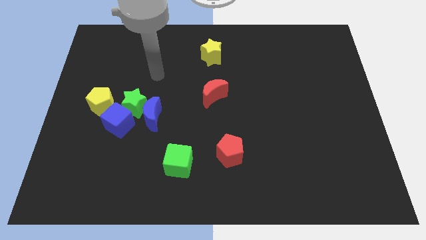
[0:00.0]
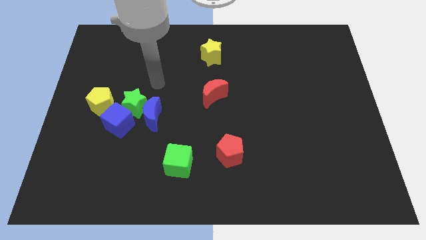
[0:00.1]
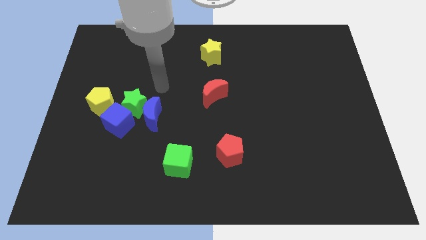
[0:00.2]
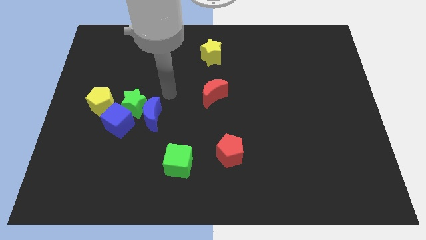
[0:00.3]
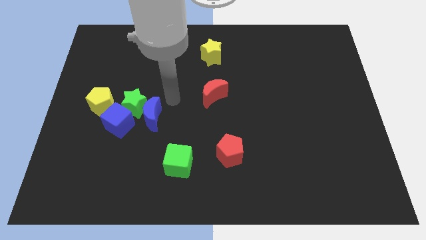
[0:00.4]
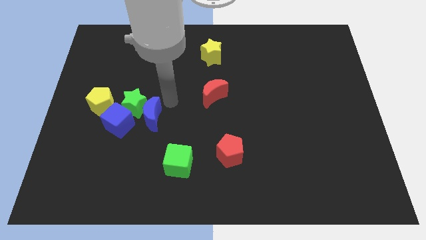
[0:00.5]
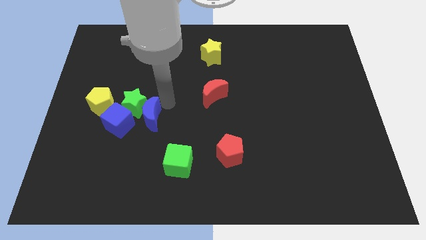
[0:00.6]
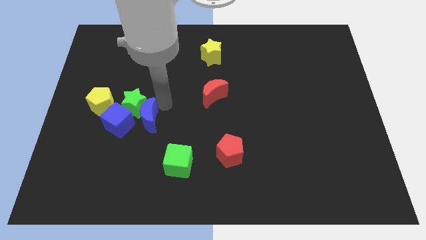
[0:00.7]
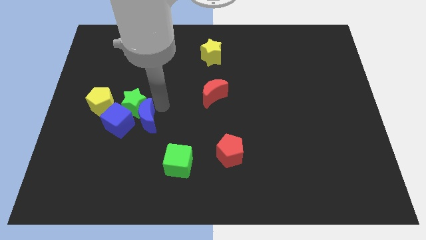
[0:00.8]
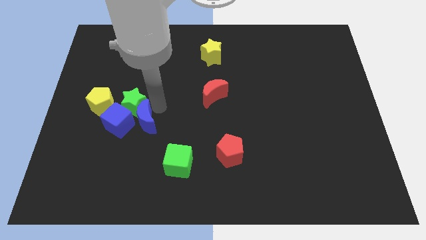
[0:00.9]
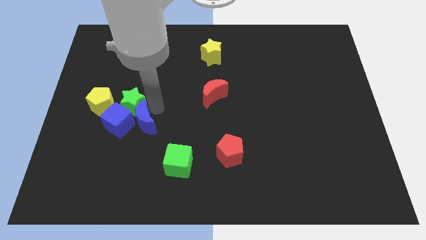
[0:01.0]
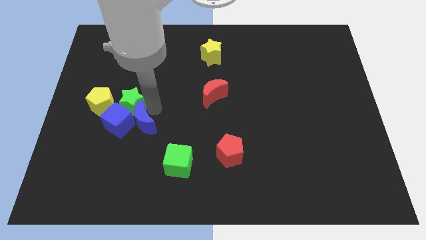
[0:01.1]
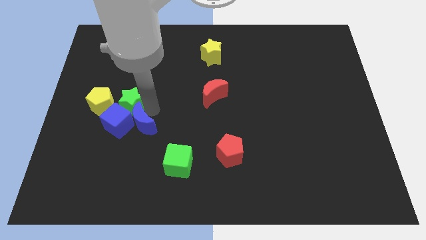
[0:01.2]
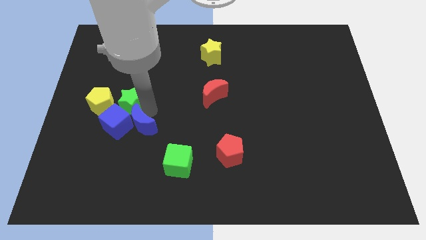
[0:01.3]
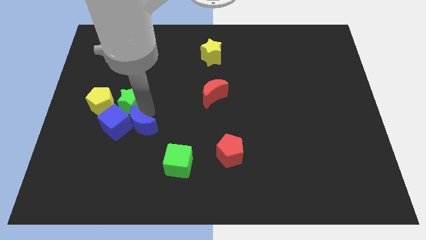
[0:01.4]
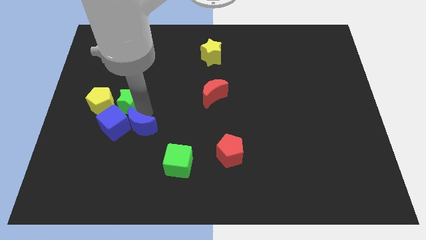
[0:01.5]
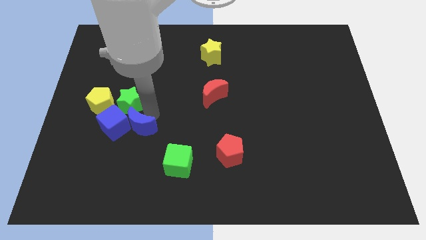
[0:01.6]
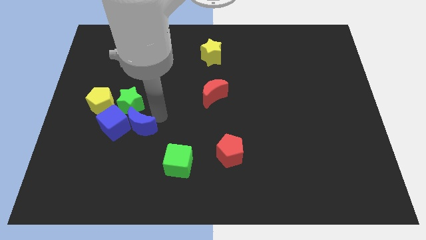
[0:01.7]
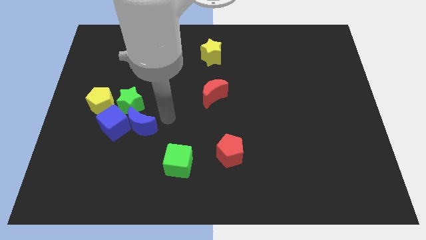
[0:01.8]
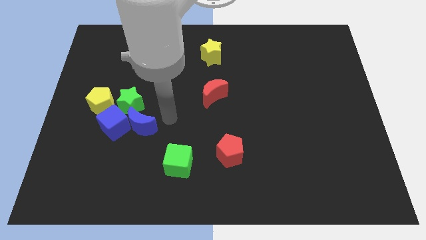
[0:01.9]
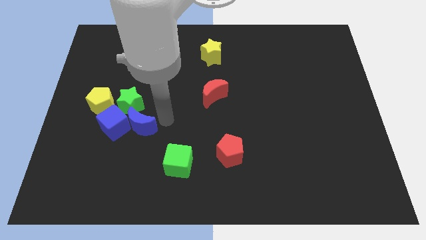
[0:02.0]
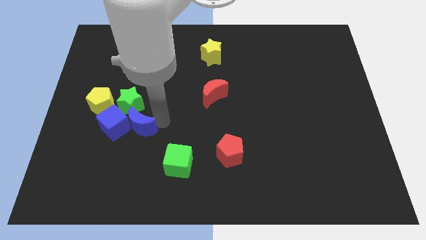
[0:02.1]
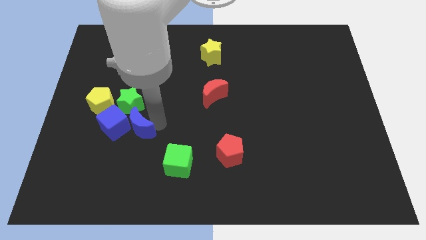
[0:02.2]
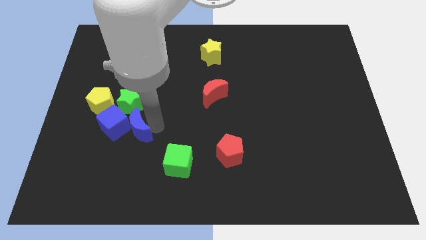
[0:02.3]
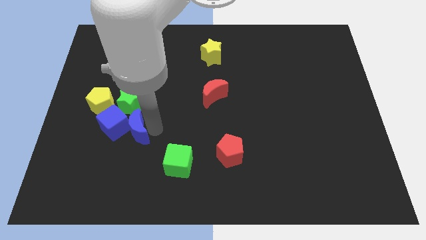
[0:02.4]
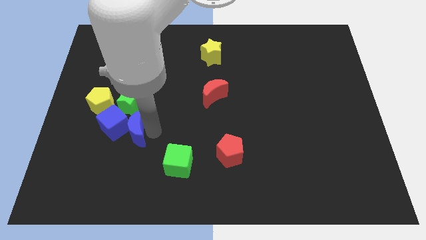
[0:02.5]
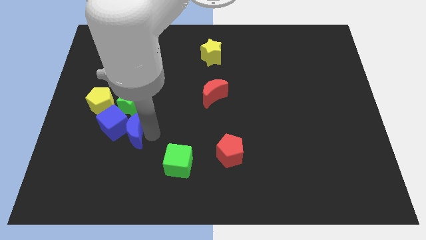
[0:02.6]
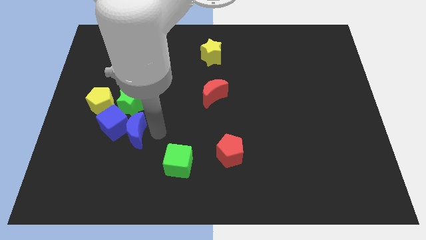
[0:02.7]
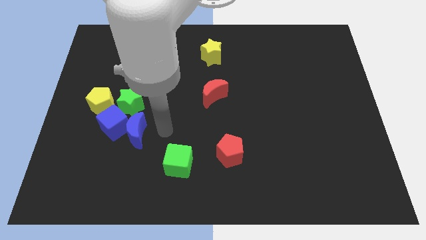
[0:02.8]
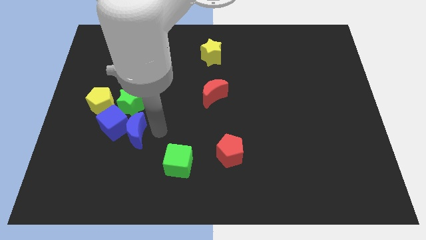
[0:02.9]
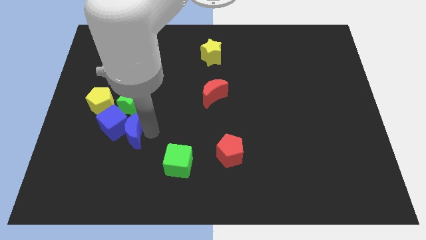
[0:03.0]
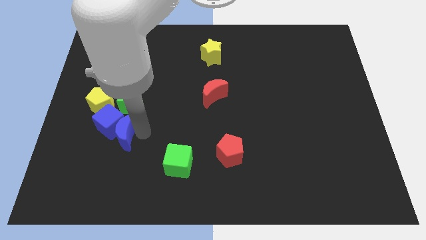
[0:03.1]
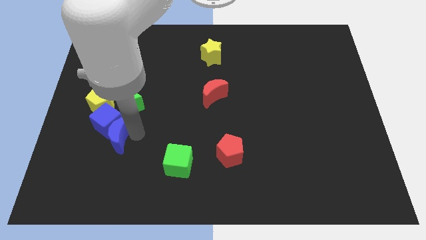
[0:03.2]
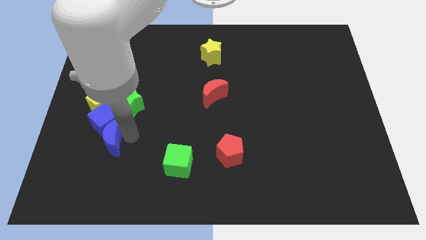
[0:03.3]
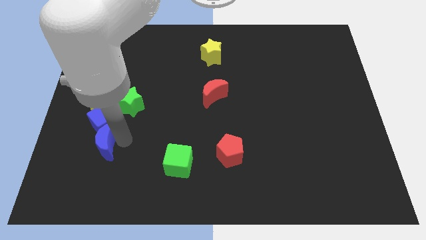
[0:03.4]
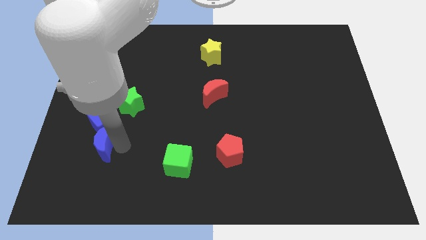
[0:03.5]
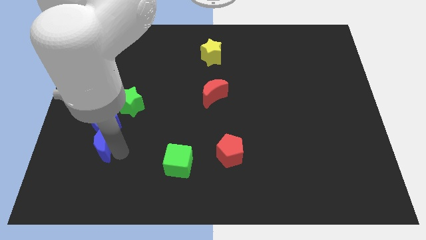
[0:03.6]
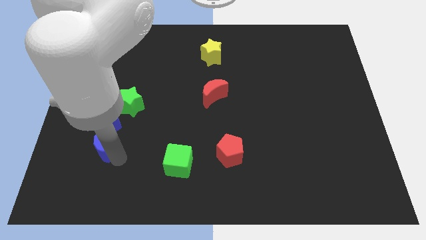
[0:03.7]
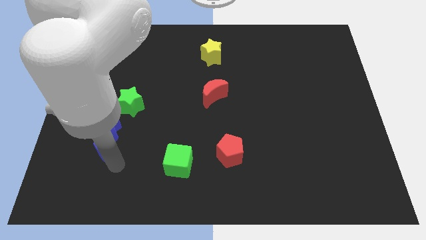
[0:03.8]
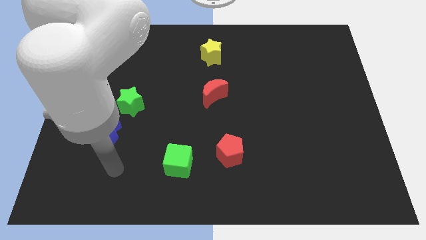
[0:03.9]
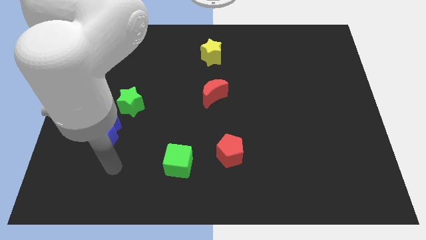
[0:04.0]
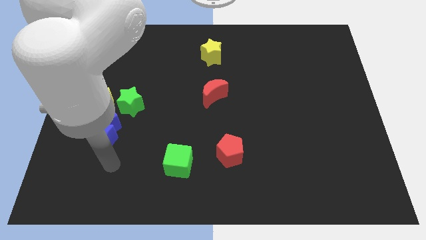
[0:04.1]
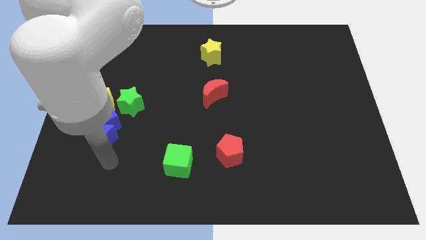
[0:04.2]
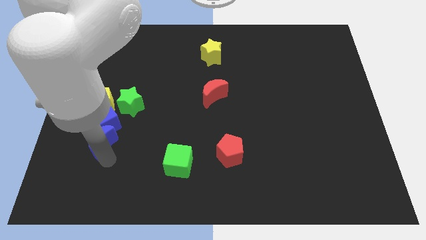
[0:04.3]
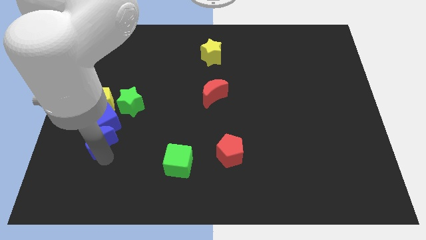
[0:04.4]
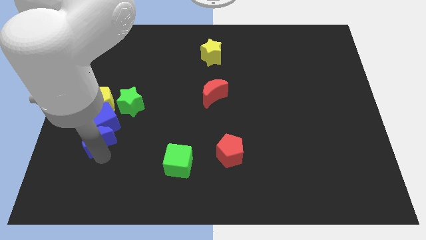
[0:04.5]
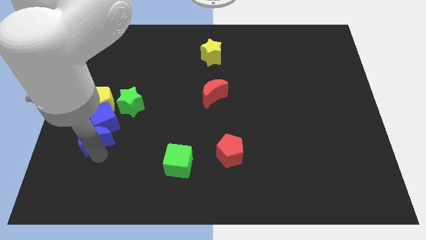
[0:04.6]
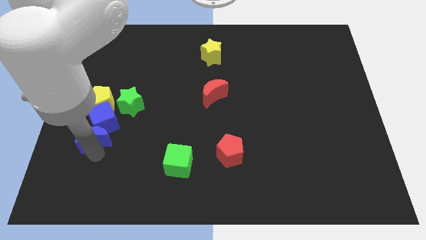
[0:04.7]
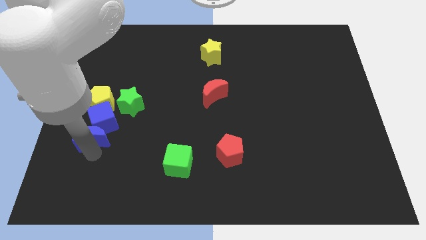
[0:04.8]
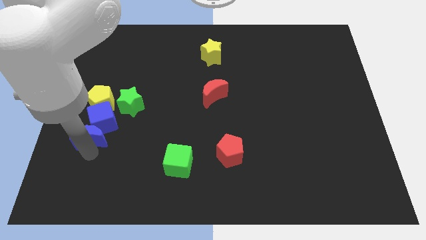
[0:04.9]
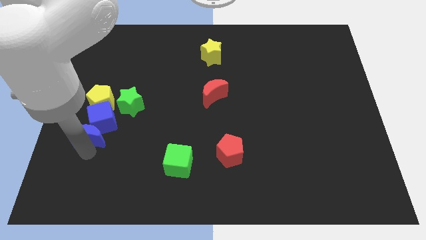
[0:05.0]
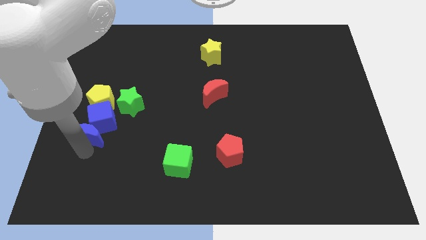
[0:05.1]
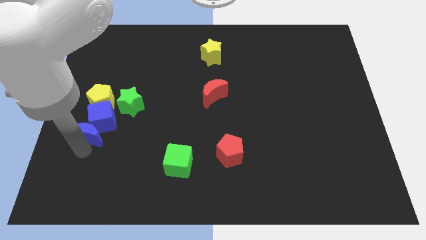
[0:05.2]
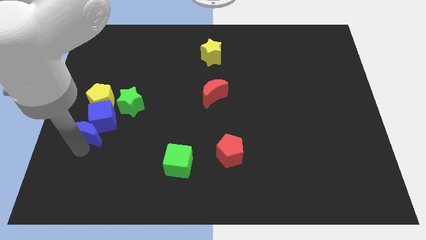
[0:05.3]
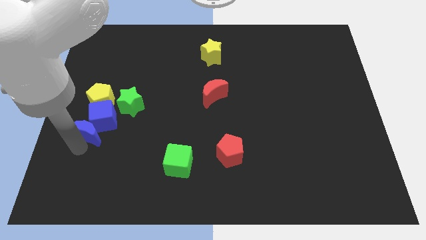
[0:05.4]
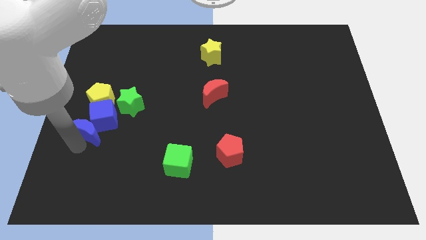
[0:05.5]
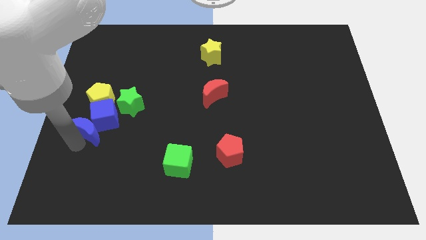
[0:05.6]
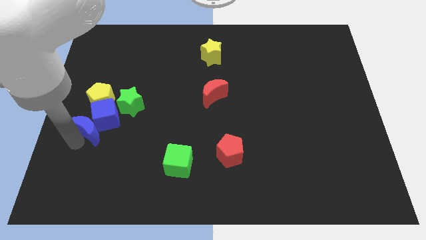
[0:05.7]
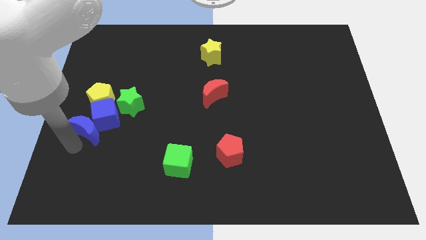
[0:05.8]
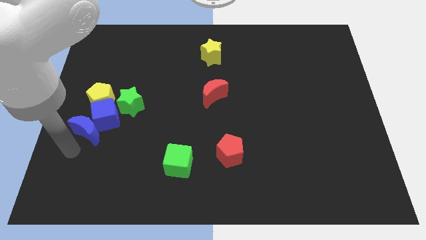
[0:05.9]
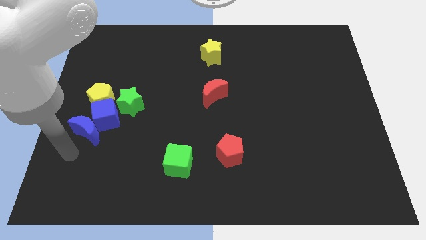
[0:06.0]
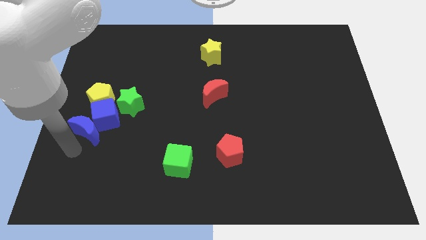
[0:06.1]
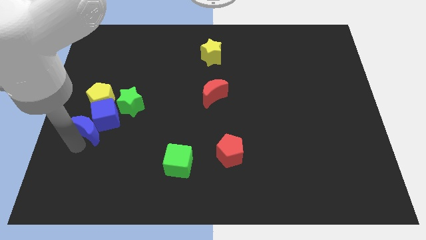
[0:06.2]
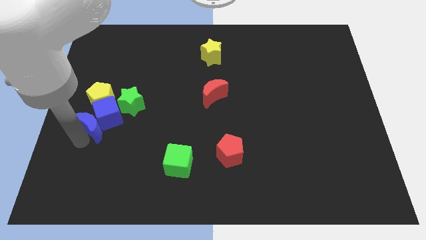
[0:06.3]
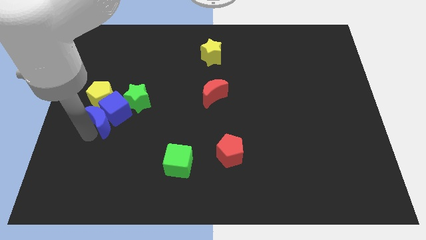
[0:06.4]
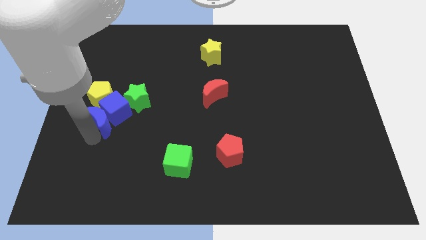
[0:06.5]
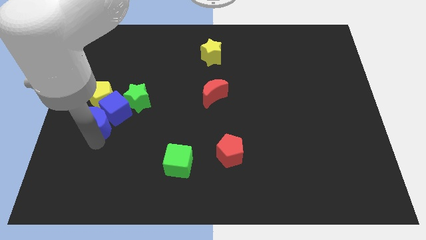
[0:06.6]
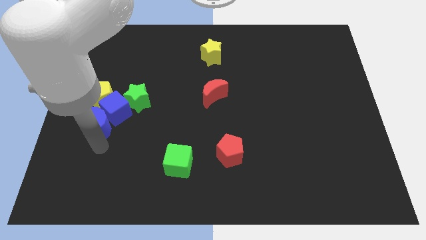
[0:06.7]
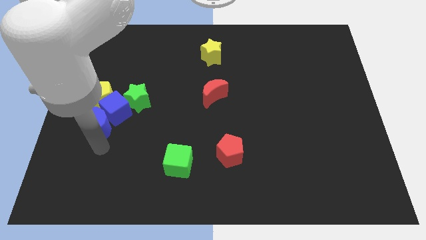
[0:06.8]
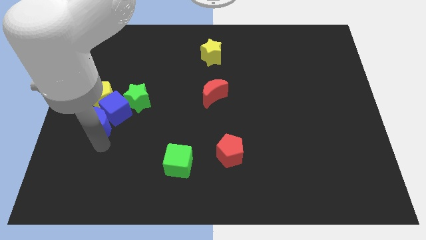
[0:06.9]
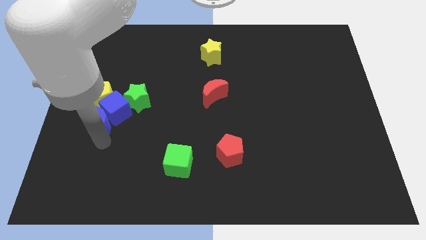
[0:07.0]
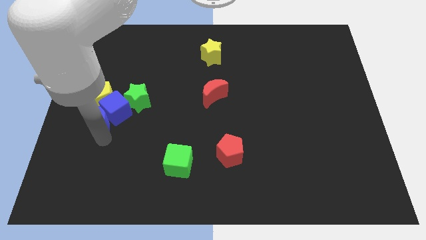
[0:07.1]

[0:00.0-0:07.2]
slide the blue moon to the yellow pentagon
